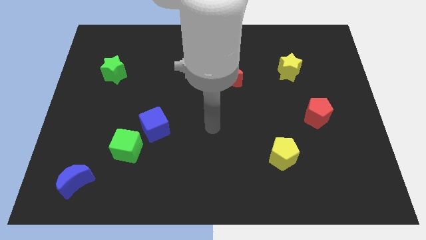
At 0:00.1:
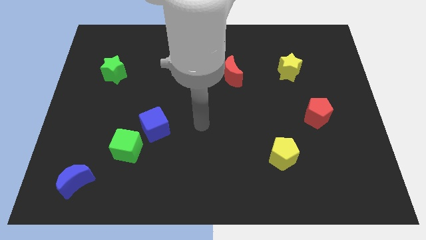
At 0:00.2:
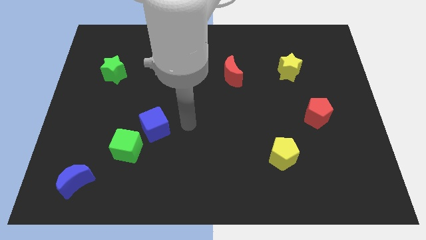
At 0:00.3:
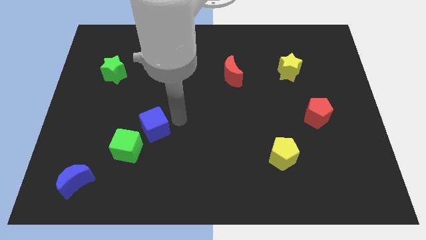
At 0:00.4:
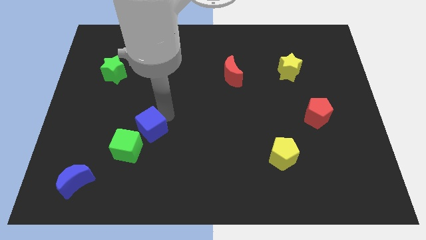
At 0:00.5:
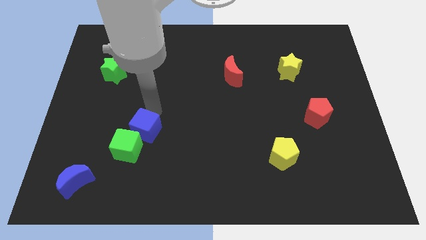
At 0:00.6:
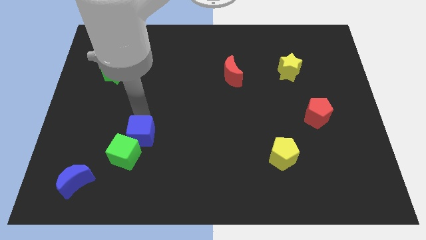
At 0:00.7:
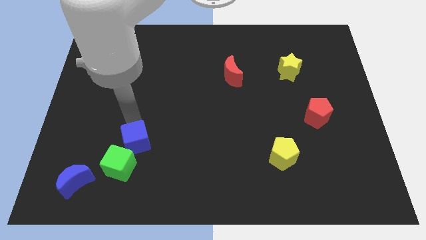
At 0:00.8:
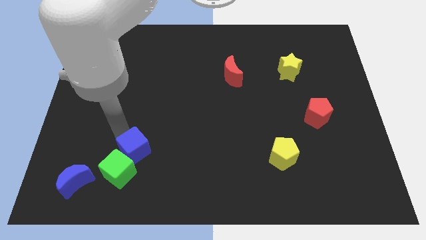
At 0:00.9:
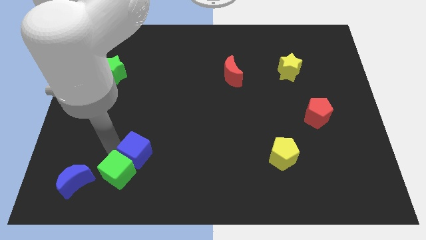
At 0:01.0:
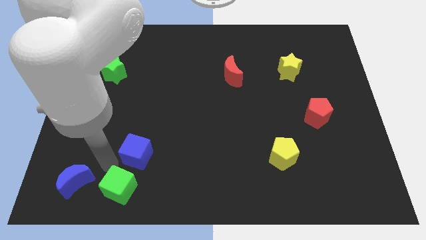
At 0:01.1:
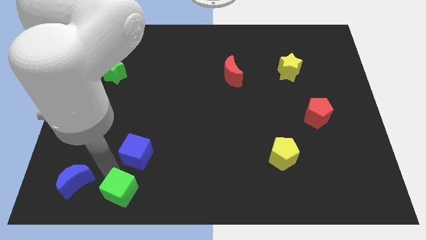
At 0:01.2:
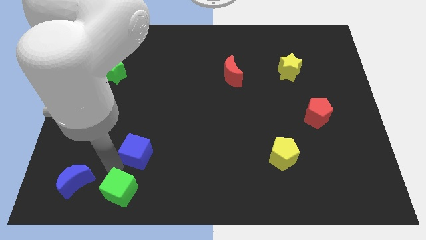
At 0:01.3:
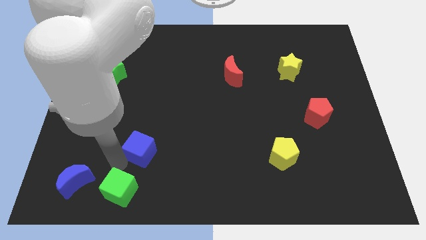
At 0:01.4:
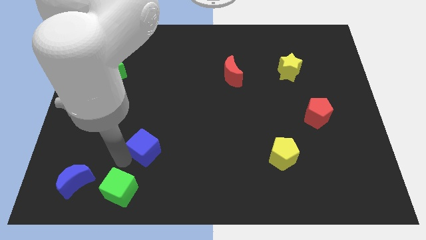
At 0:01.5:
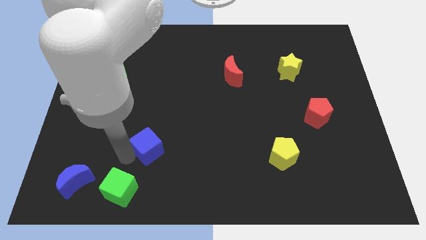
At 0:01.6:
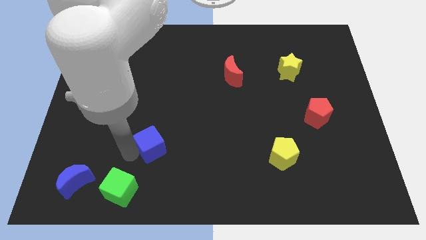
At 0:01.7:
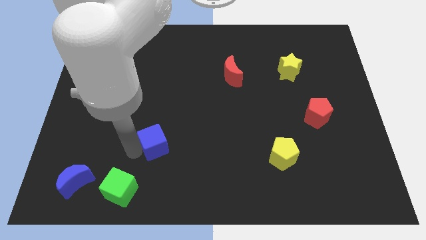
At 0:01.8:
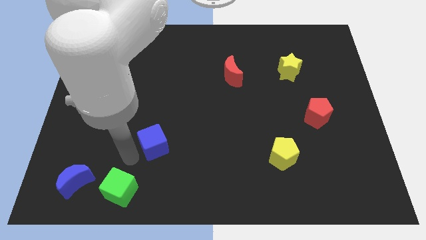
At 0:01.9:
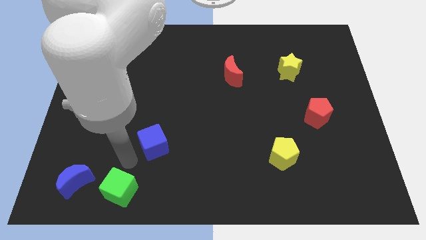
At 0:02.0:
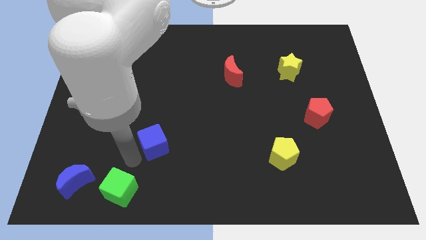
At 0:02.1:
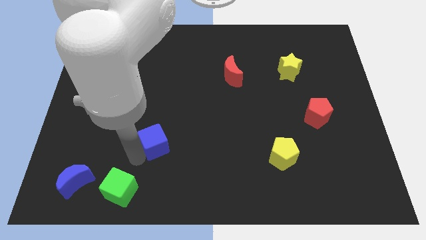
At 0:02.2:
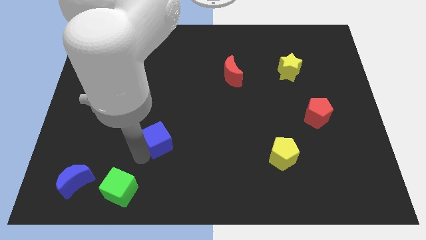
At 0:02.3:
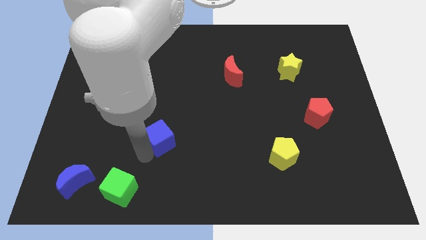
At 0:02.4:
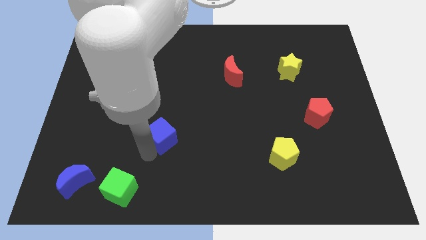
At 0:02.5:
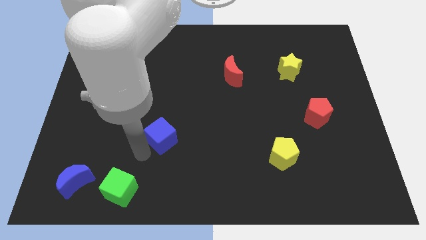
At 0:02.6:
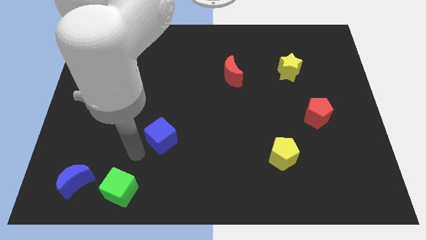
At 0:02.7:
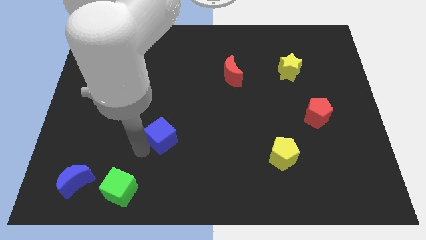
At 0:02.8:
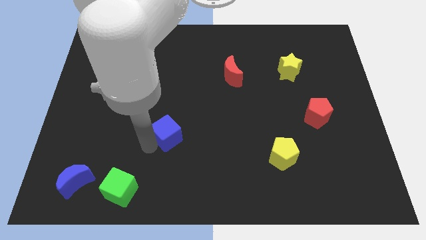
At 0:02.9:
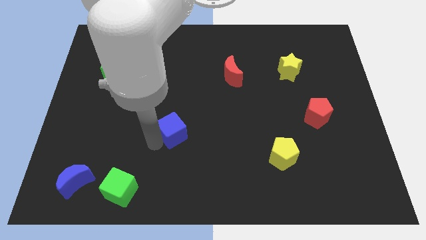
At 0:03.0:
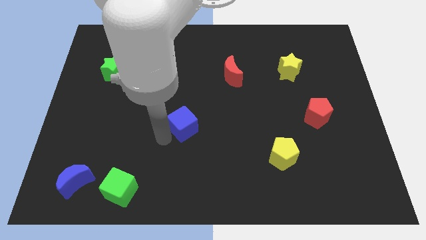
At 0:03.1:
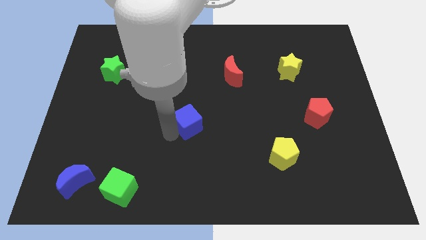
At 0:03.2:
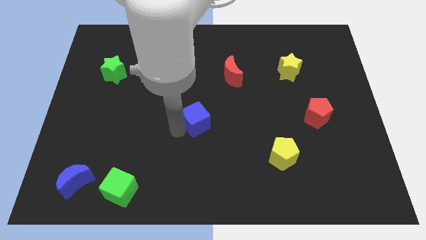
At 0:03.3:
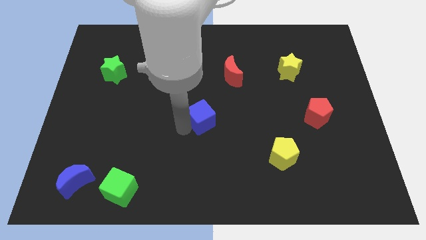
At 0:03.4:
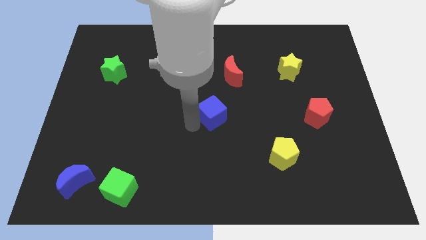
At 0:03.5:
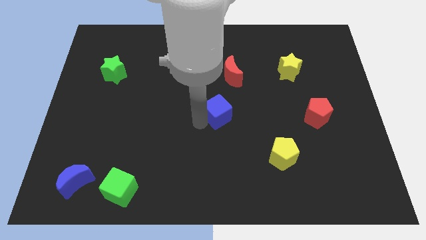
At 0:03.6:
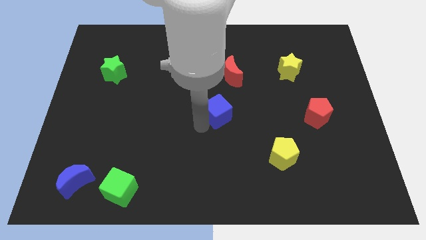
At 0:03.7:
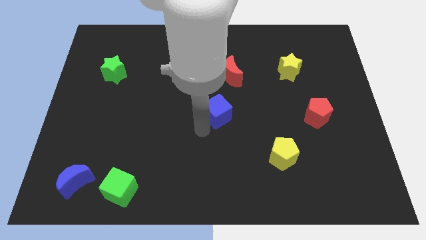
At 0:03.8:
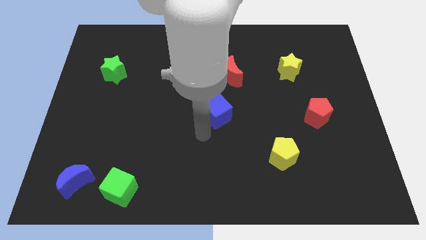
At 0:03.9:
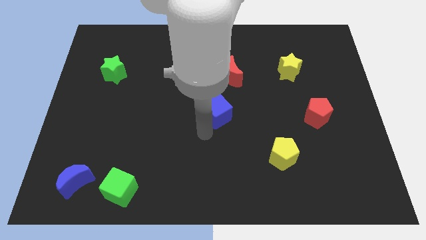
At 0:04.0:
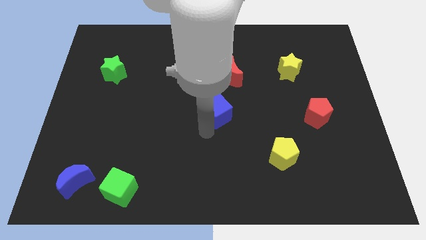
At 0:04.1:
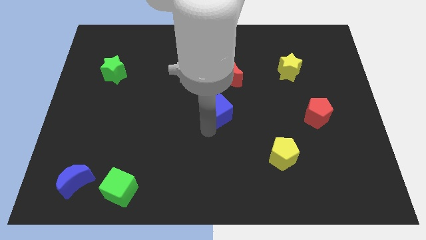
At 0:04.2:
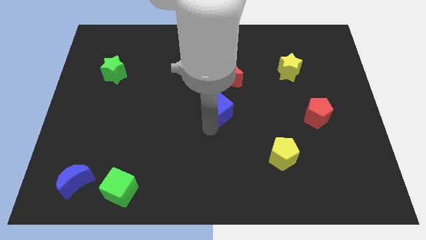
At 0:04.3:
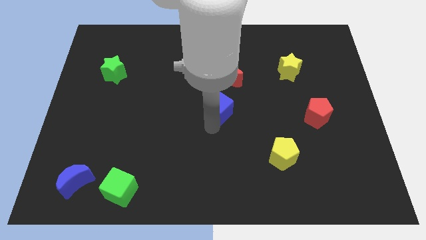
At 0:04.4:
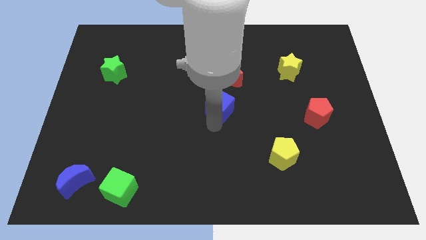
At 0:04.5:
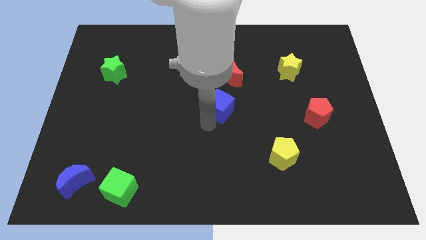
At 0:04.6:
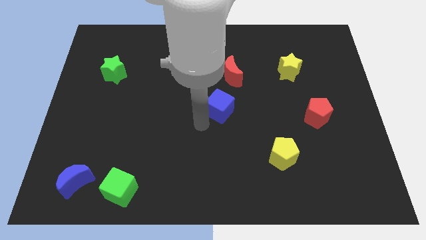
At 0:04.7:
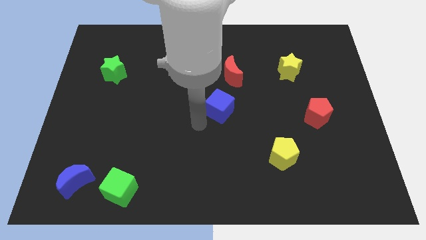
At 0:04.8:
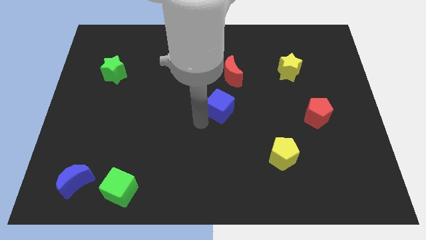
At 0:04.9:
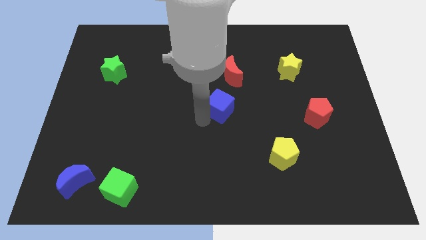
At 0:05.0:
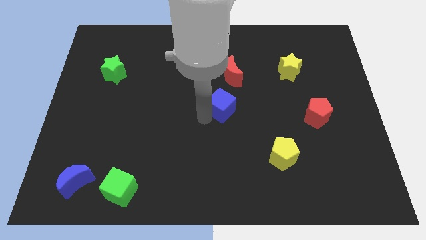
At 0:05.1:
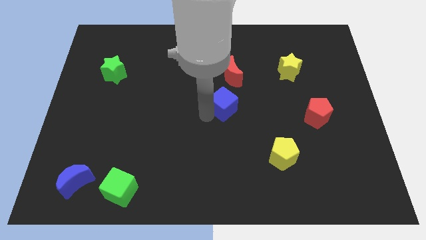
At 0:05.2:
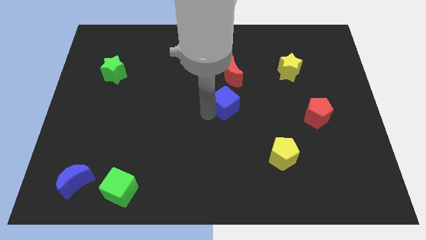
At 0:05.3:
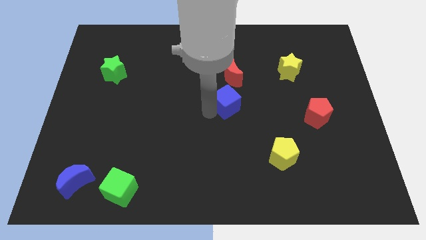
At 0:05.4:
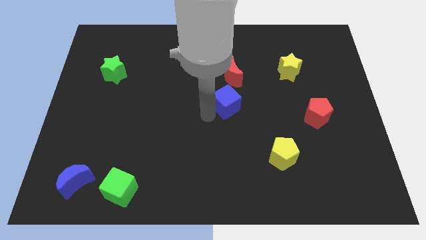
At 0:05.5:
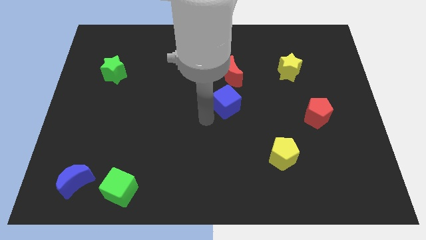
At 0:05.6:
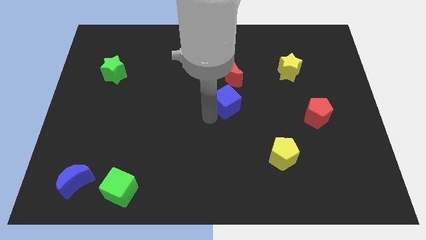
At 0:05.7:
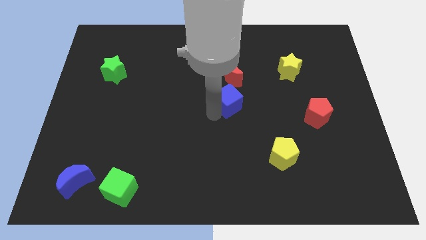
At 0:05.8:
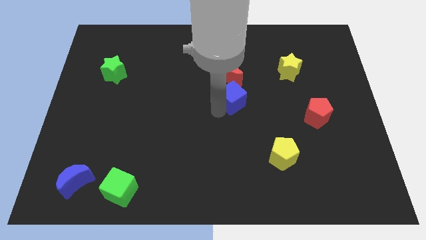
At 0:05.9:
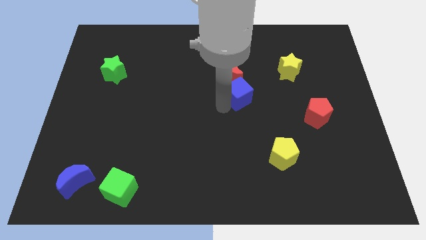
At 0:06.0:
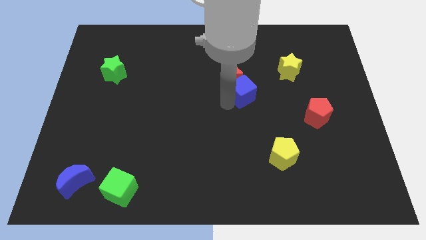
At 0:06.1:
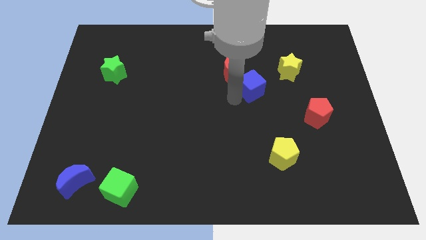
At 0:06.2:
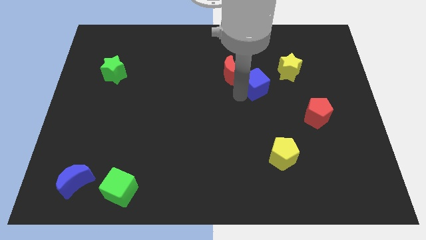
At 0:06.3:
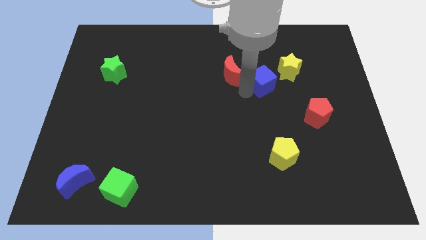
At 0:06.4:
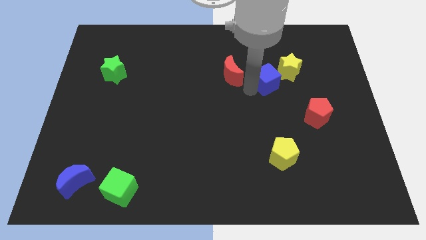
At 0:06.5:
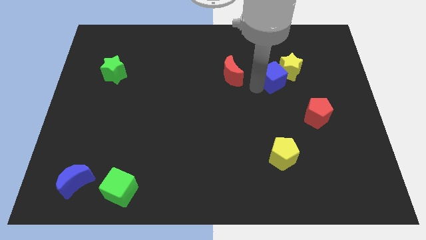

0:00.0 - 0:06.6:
slide the blue cube next to the yellow star

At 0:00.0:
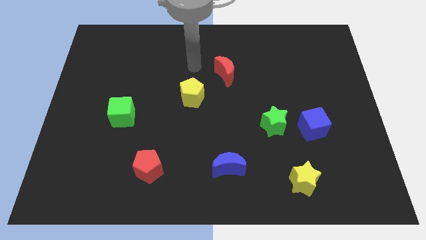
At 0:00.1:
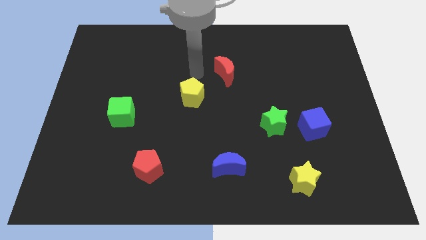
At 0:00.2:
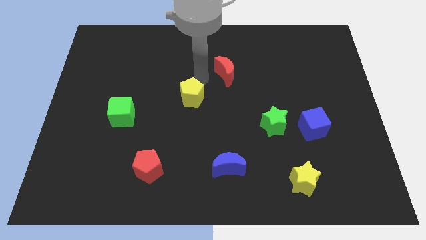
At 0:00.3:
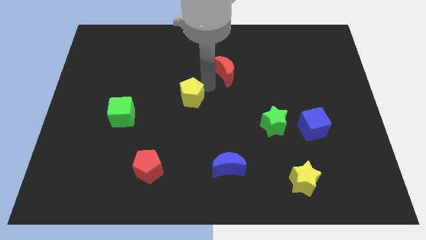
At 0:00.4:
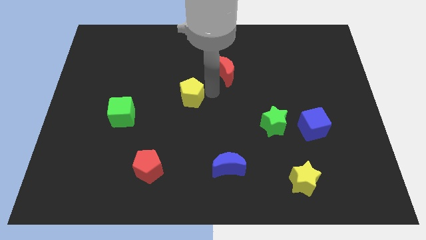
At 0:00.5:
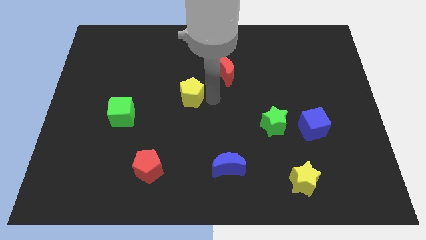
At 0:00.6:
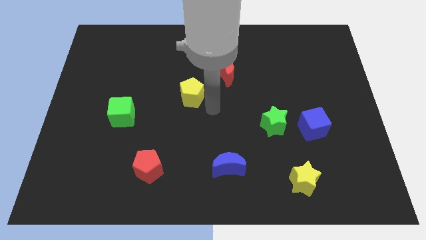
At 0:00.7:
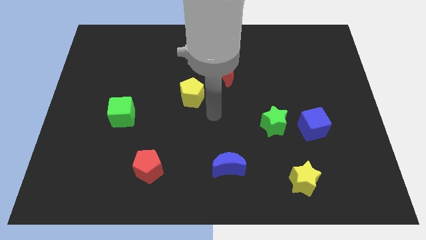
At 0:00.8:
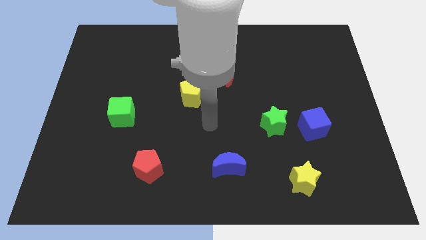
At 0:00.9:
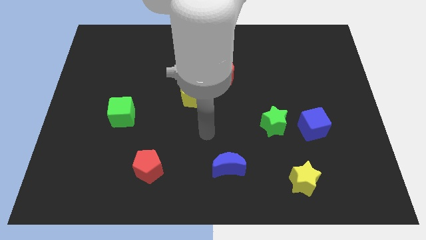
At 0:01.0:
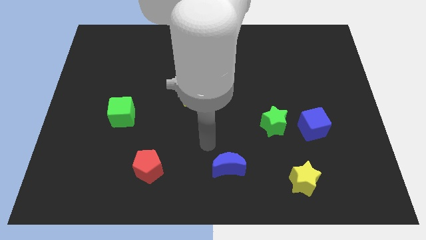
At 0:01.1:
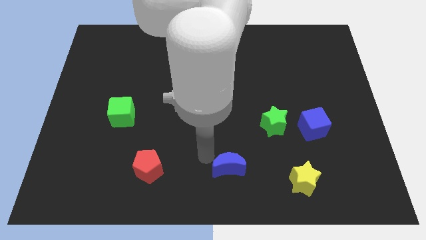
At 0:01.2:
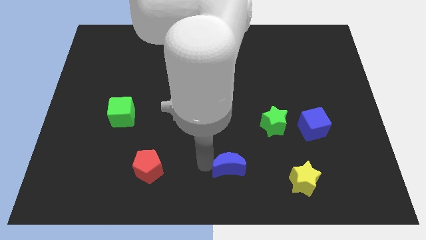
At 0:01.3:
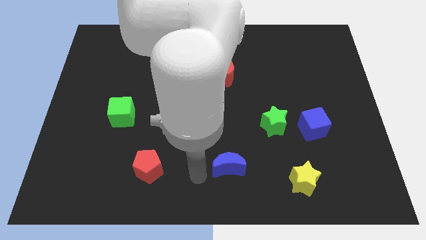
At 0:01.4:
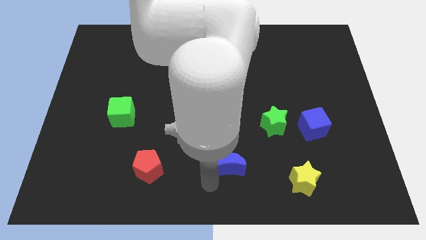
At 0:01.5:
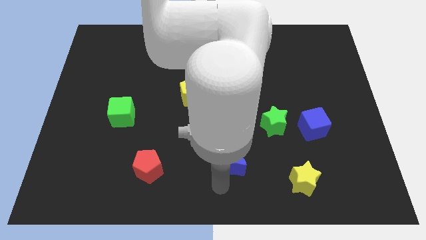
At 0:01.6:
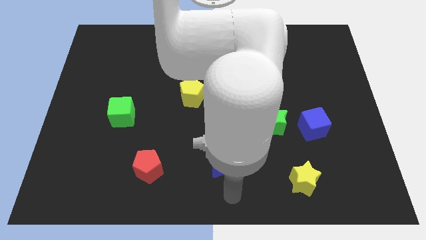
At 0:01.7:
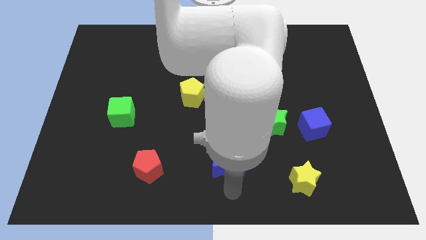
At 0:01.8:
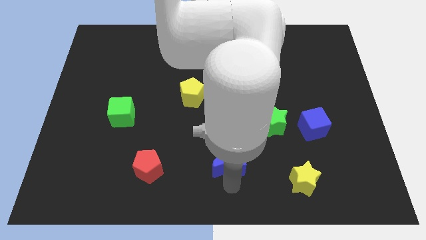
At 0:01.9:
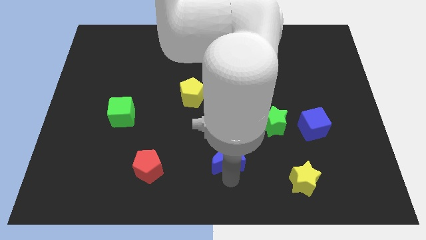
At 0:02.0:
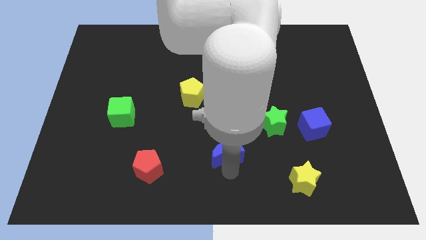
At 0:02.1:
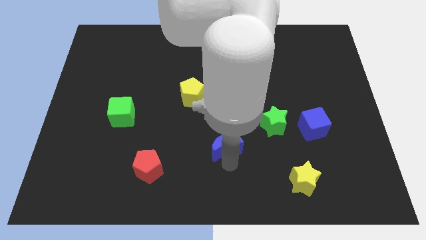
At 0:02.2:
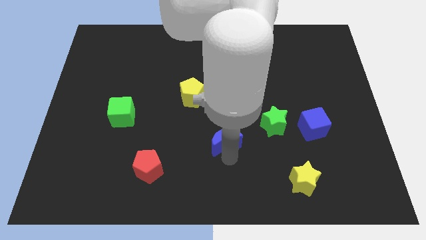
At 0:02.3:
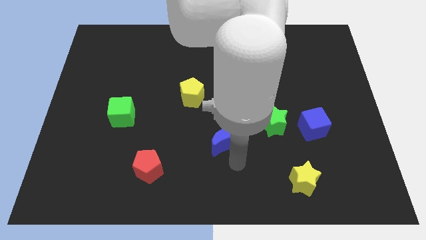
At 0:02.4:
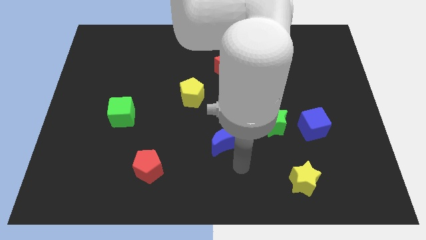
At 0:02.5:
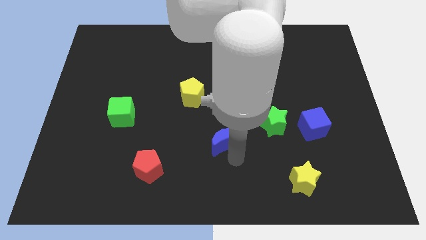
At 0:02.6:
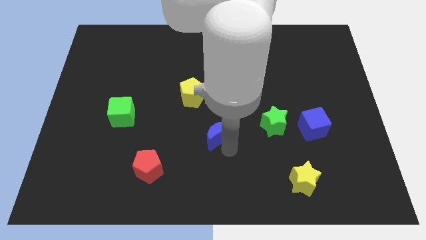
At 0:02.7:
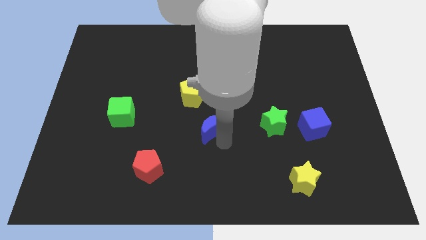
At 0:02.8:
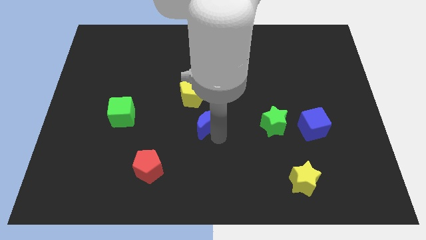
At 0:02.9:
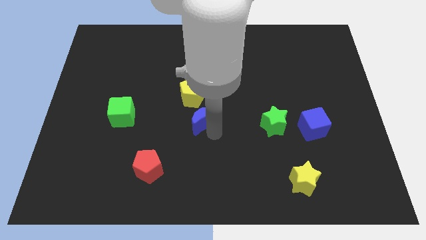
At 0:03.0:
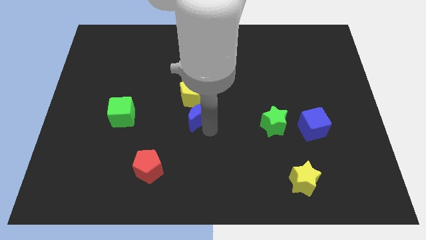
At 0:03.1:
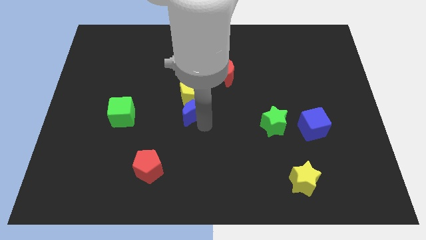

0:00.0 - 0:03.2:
put the blue moon to the yellow pentagon
